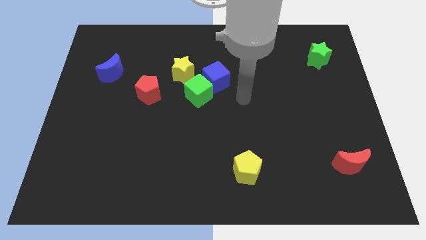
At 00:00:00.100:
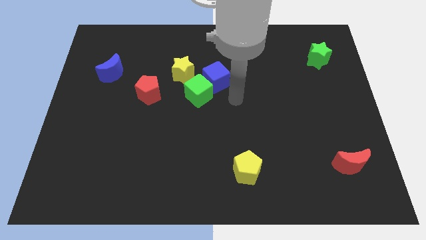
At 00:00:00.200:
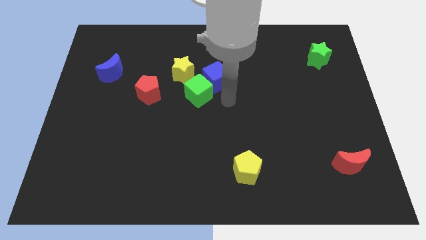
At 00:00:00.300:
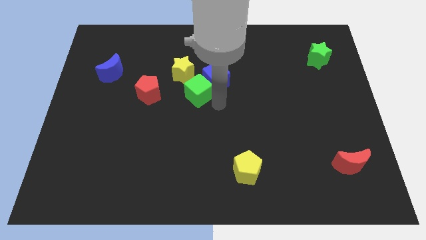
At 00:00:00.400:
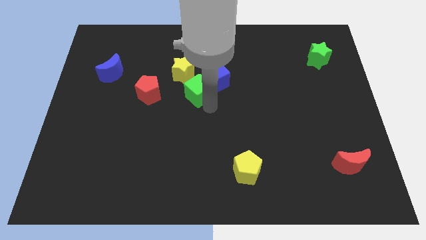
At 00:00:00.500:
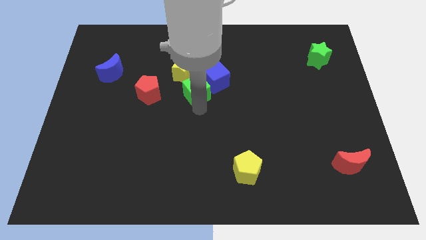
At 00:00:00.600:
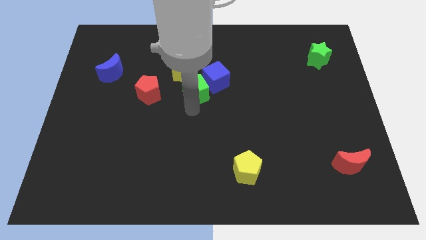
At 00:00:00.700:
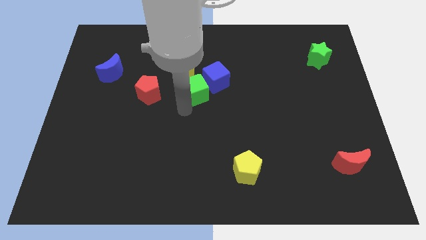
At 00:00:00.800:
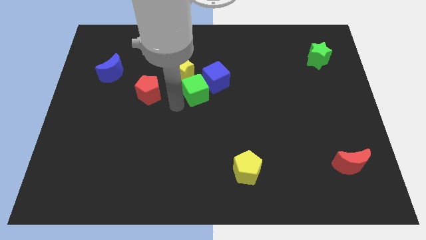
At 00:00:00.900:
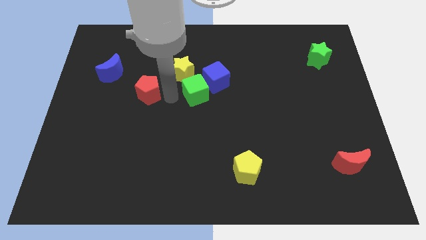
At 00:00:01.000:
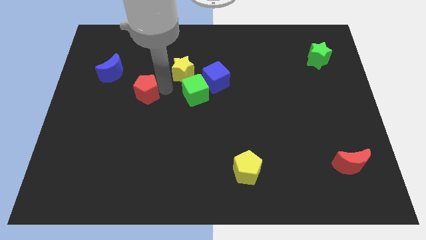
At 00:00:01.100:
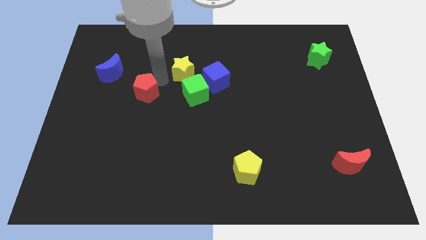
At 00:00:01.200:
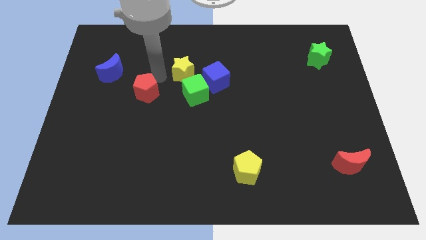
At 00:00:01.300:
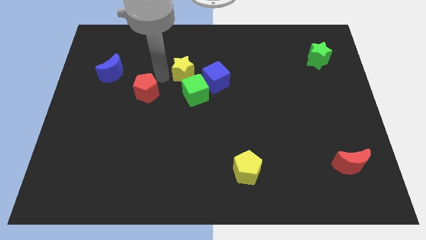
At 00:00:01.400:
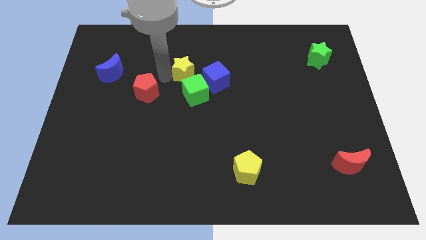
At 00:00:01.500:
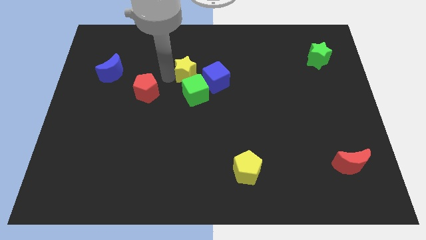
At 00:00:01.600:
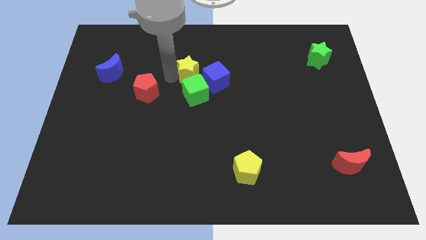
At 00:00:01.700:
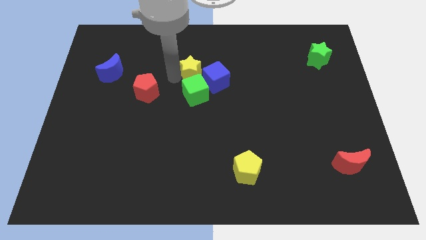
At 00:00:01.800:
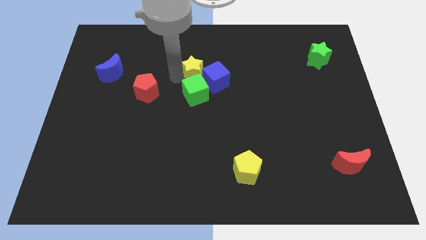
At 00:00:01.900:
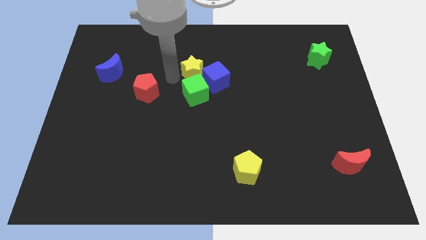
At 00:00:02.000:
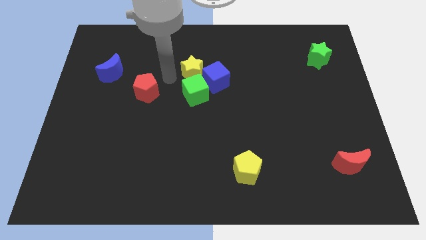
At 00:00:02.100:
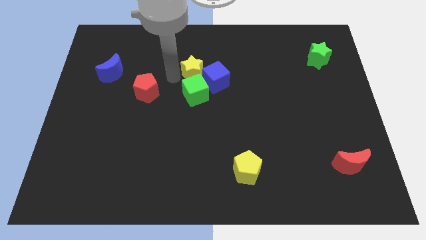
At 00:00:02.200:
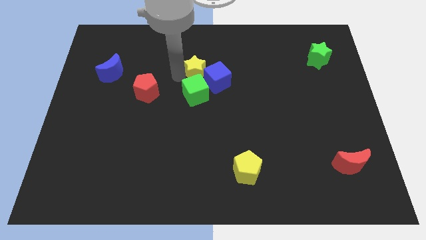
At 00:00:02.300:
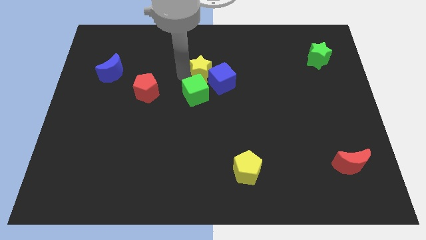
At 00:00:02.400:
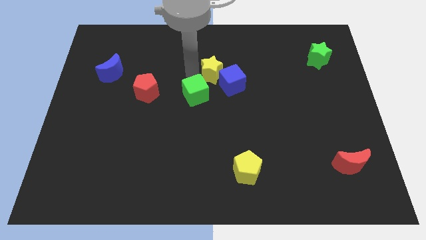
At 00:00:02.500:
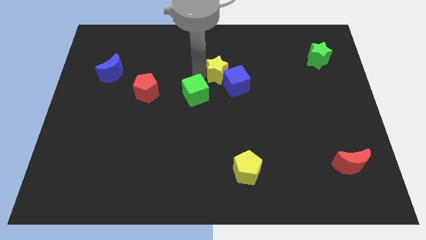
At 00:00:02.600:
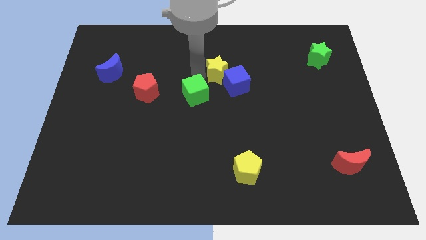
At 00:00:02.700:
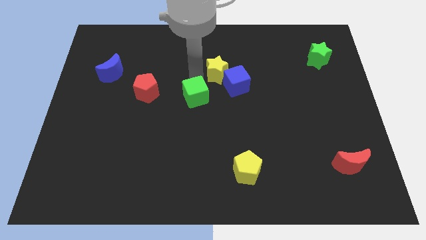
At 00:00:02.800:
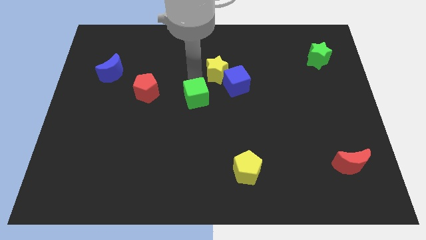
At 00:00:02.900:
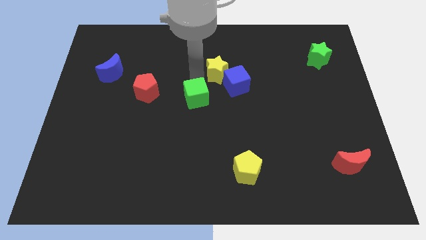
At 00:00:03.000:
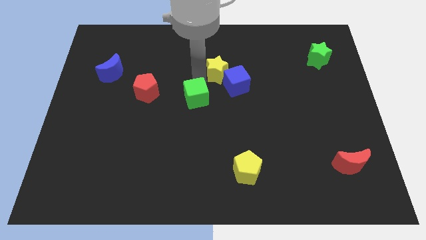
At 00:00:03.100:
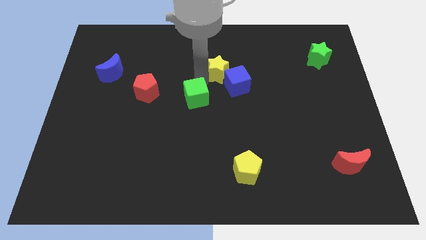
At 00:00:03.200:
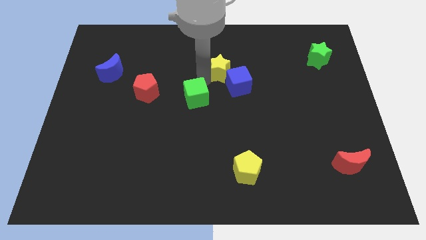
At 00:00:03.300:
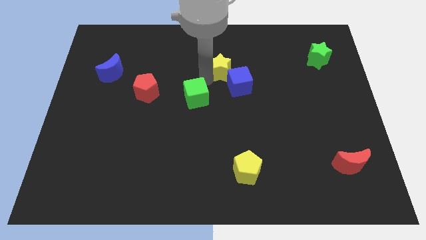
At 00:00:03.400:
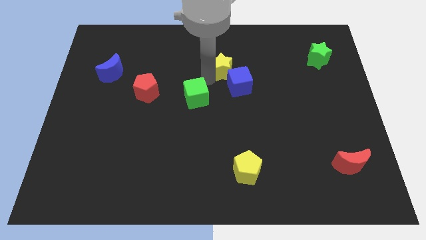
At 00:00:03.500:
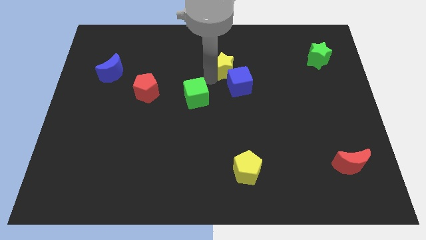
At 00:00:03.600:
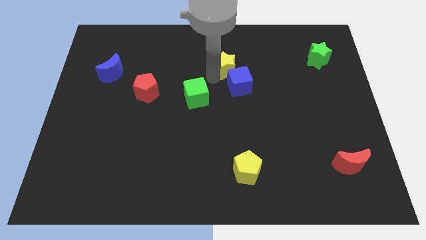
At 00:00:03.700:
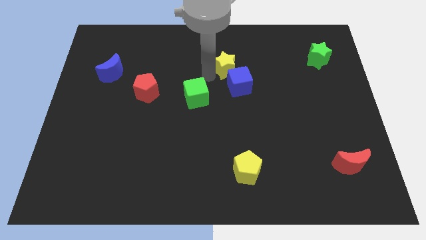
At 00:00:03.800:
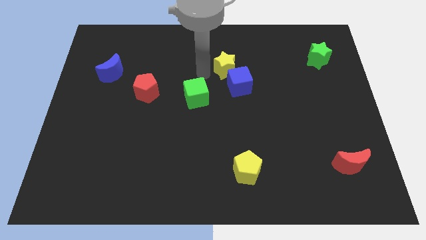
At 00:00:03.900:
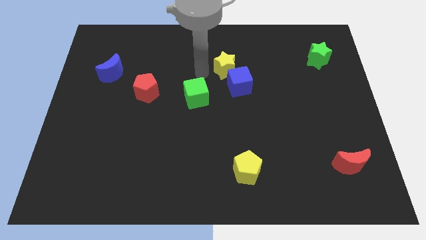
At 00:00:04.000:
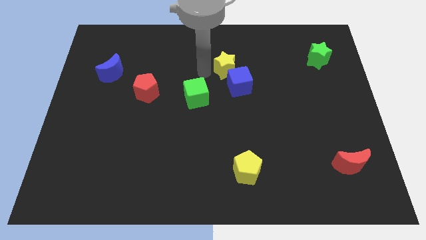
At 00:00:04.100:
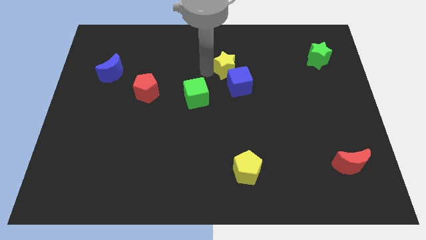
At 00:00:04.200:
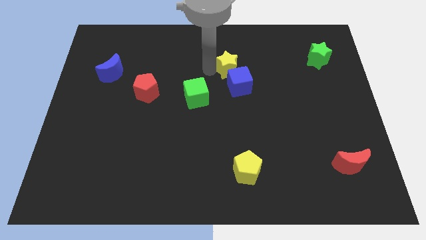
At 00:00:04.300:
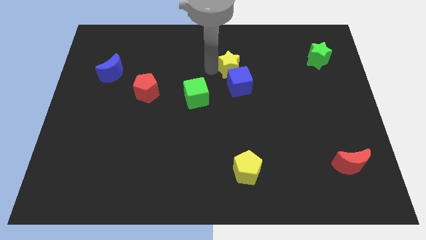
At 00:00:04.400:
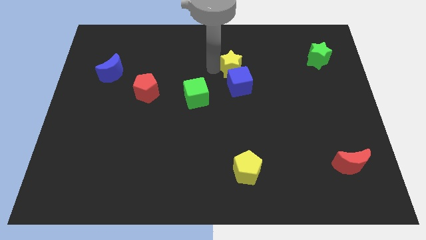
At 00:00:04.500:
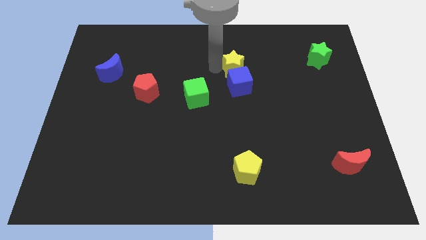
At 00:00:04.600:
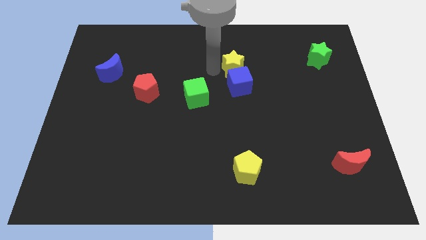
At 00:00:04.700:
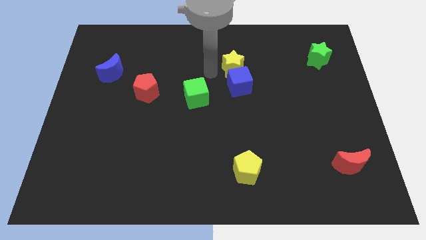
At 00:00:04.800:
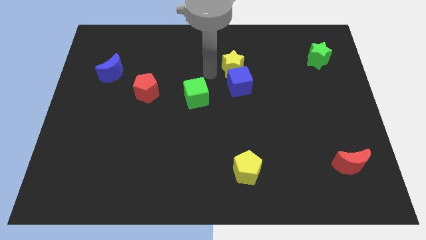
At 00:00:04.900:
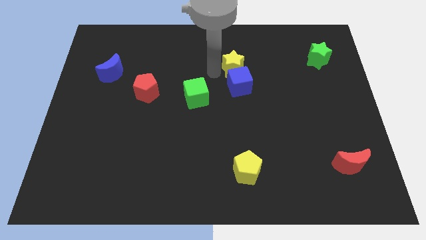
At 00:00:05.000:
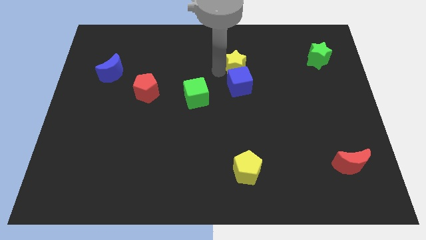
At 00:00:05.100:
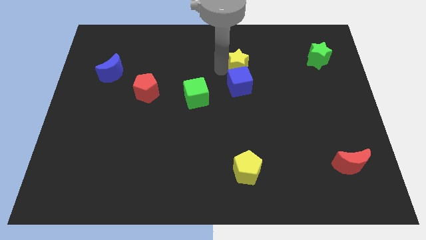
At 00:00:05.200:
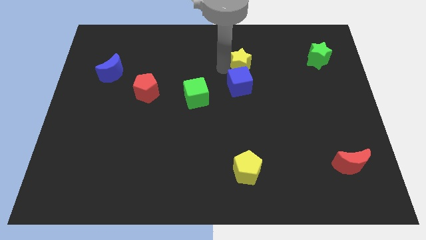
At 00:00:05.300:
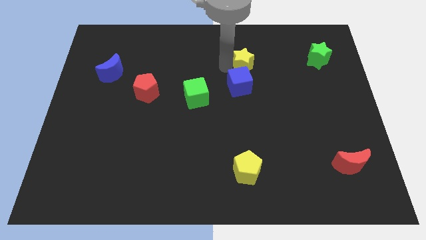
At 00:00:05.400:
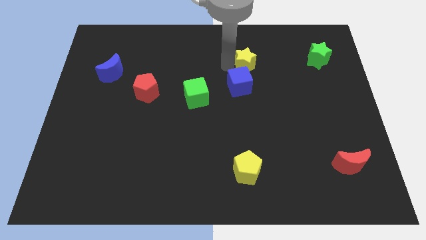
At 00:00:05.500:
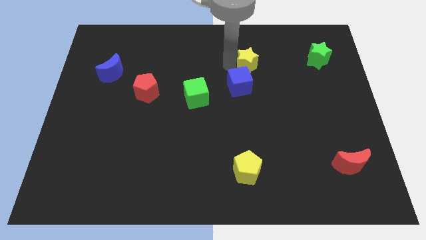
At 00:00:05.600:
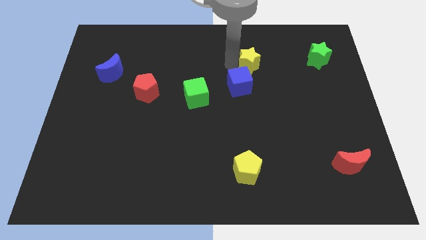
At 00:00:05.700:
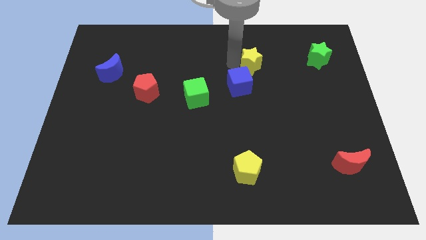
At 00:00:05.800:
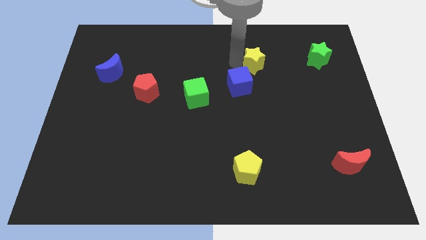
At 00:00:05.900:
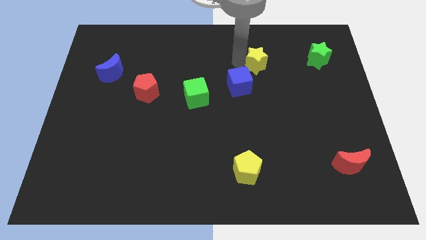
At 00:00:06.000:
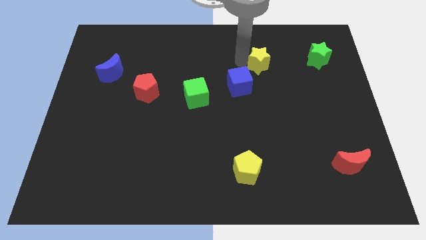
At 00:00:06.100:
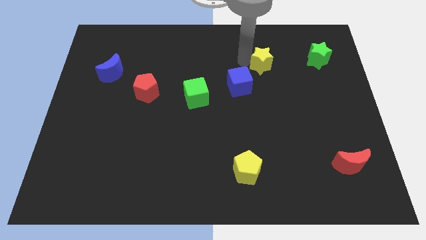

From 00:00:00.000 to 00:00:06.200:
push the yellow star to the right

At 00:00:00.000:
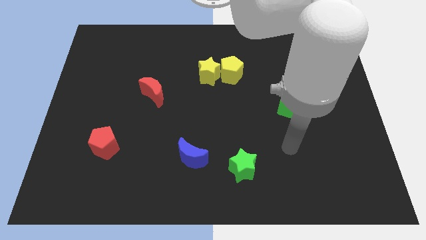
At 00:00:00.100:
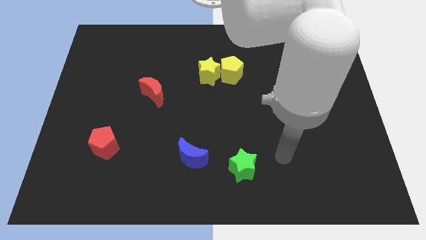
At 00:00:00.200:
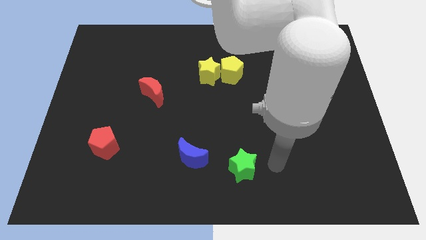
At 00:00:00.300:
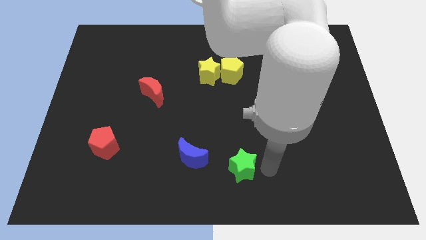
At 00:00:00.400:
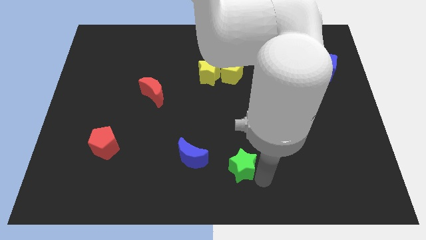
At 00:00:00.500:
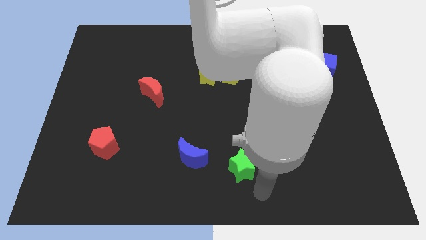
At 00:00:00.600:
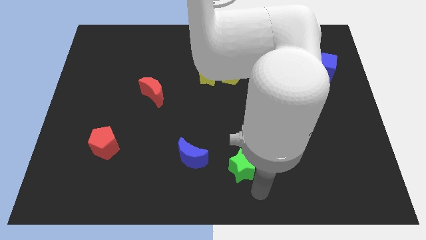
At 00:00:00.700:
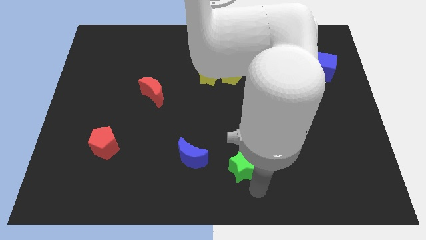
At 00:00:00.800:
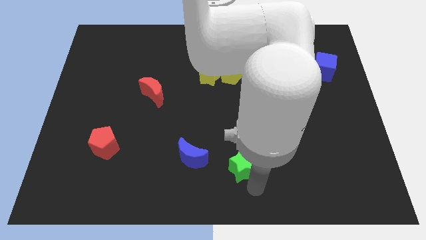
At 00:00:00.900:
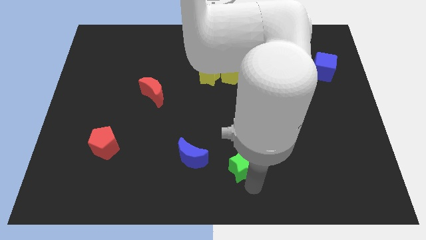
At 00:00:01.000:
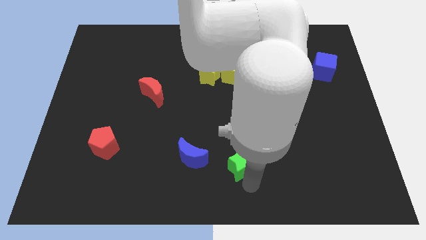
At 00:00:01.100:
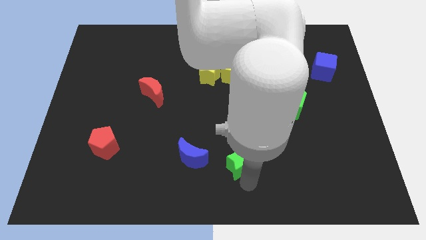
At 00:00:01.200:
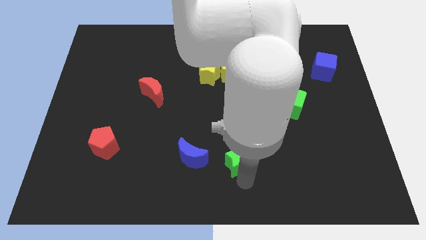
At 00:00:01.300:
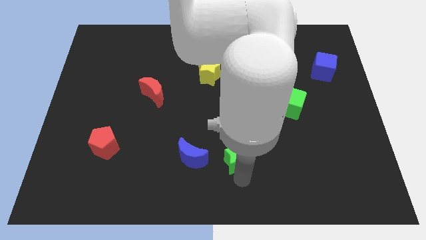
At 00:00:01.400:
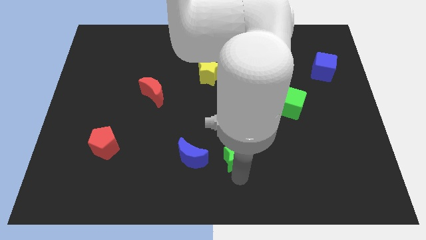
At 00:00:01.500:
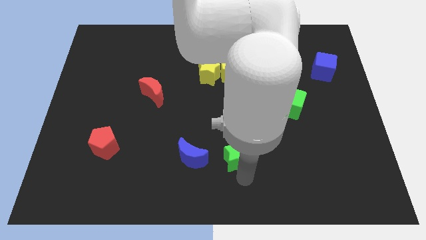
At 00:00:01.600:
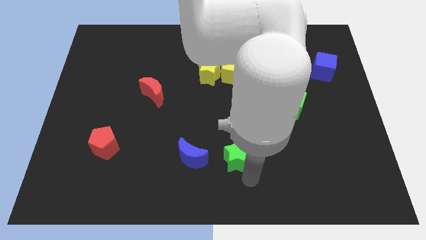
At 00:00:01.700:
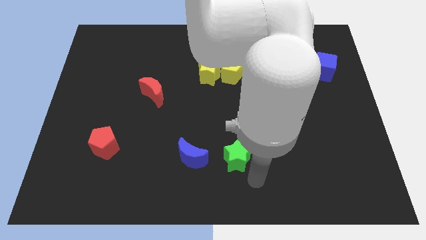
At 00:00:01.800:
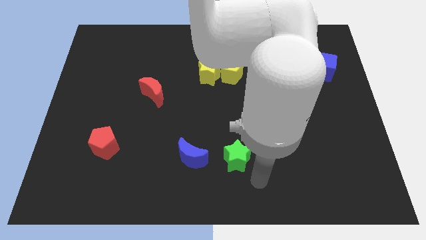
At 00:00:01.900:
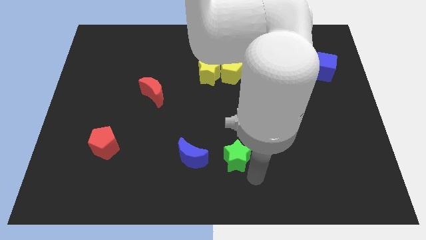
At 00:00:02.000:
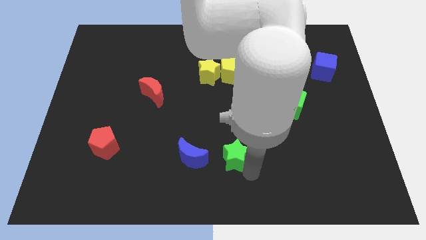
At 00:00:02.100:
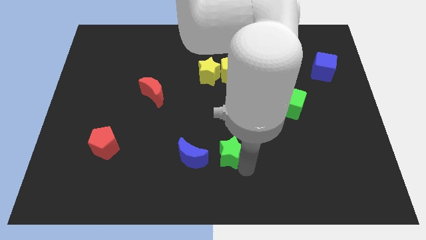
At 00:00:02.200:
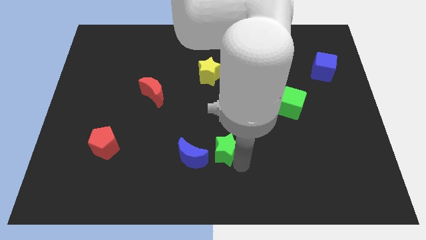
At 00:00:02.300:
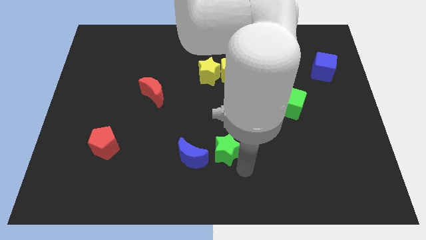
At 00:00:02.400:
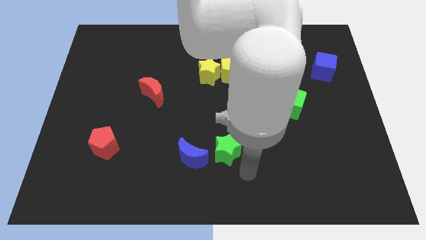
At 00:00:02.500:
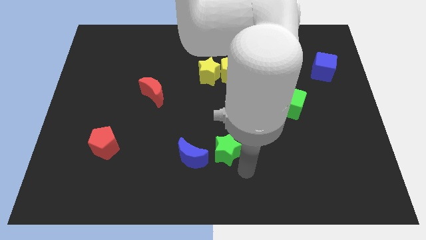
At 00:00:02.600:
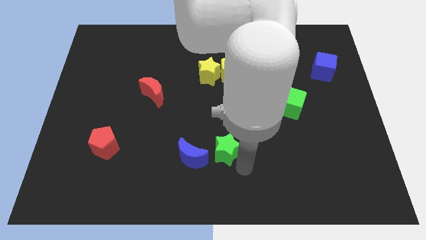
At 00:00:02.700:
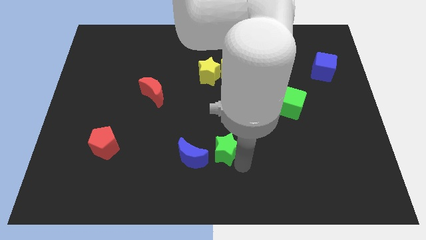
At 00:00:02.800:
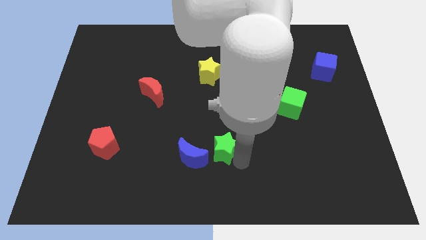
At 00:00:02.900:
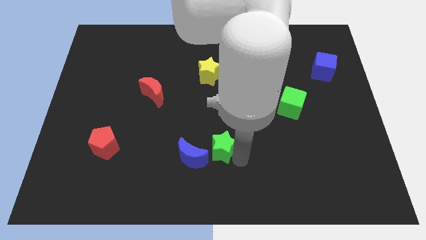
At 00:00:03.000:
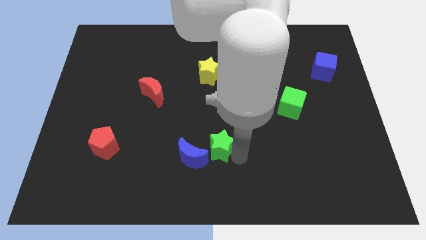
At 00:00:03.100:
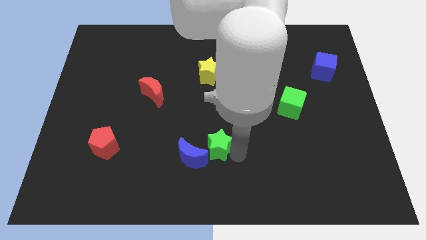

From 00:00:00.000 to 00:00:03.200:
slightly push the green star diagonally up and to the left
